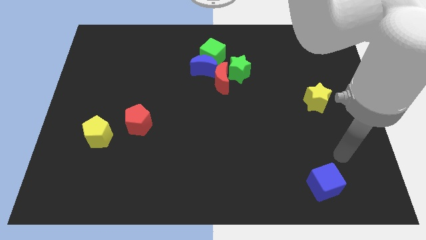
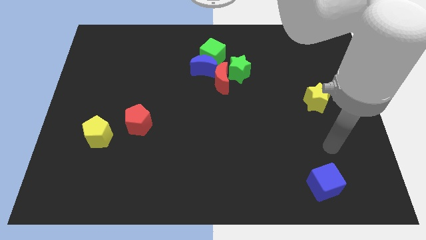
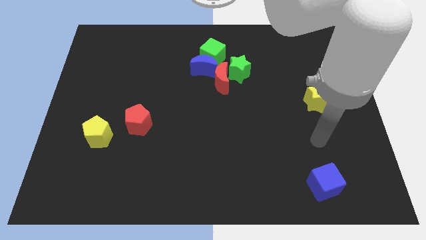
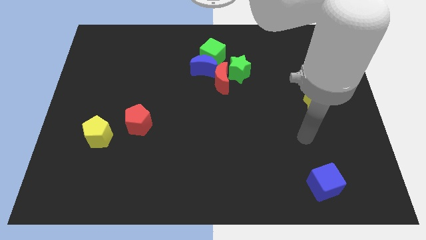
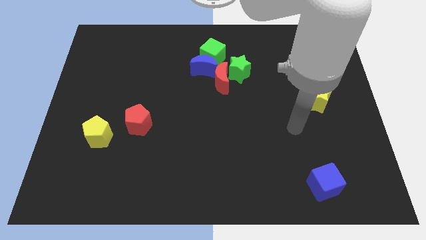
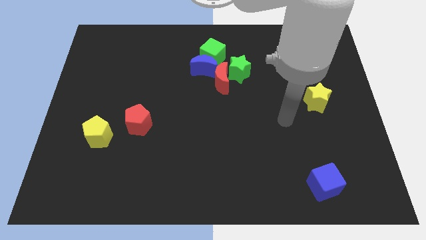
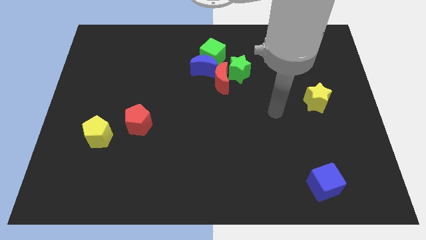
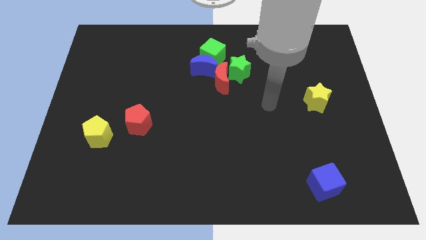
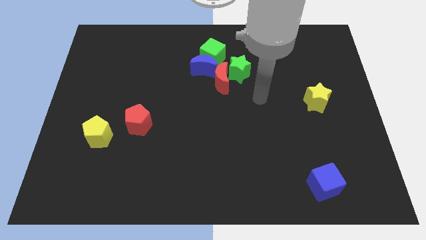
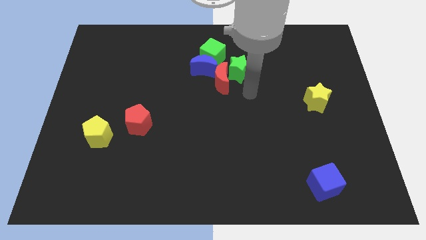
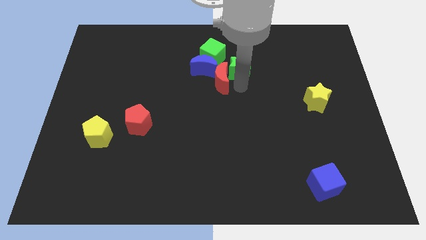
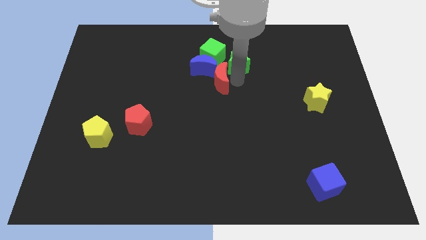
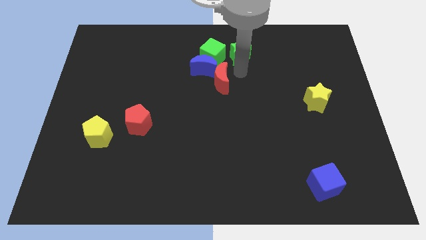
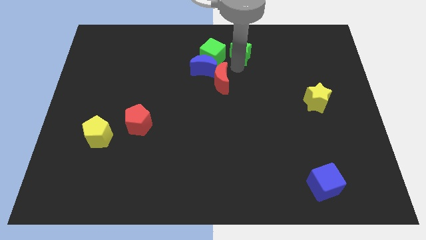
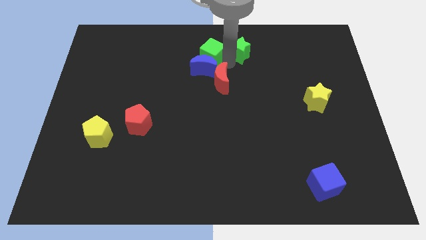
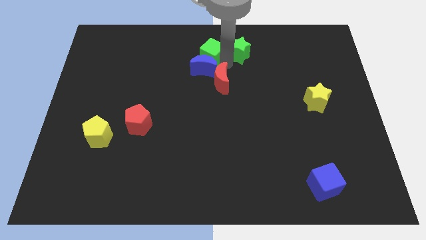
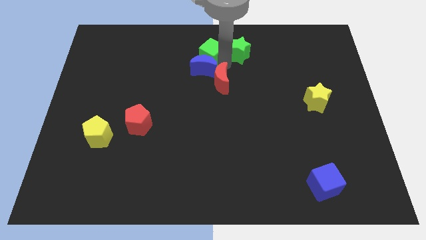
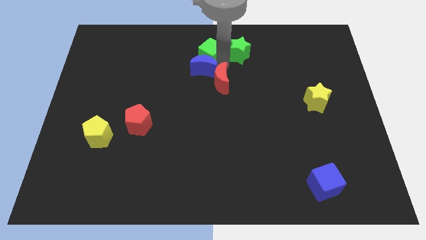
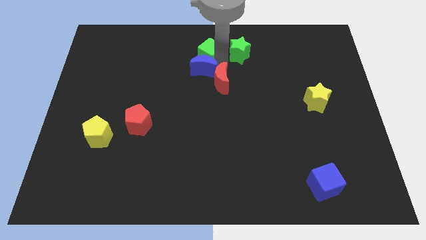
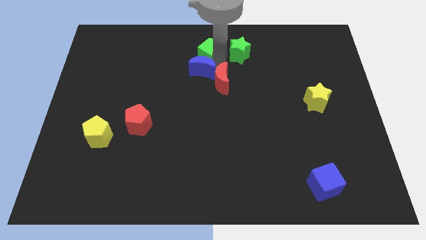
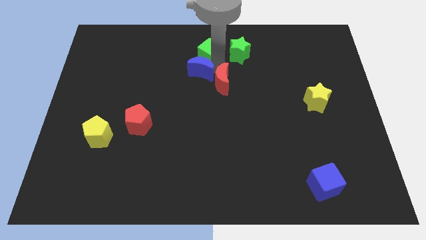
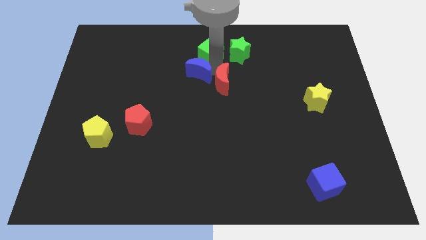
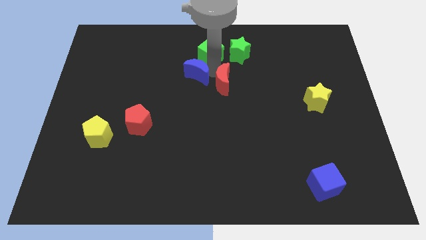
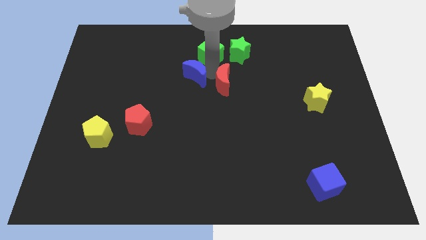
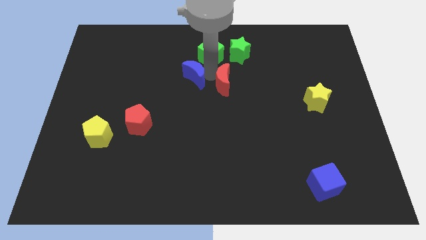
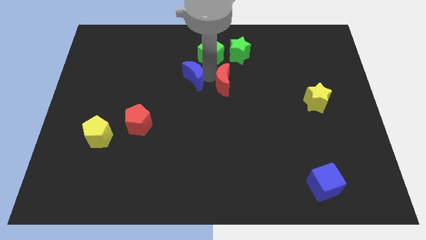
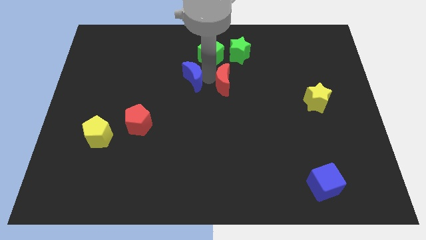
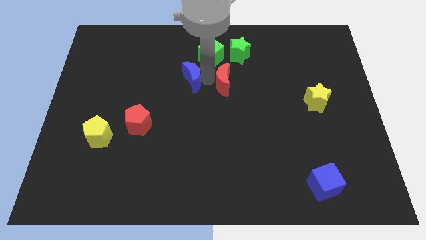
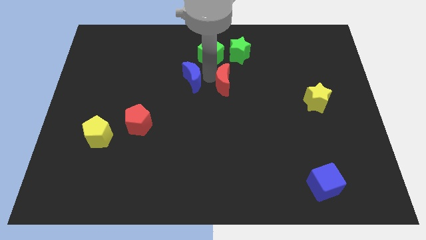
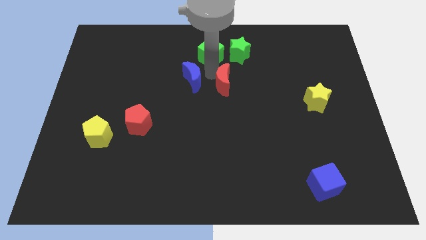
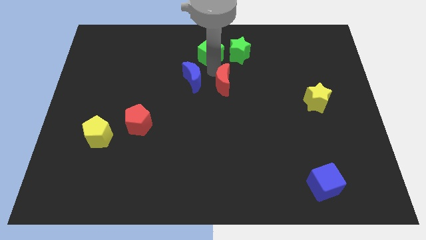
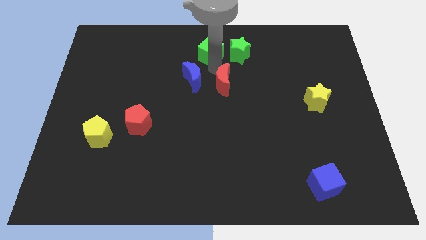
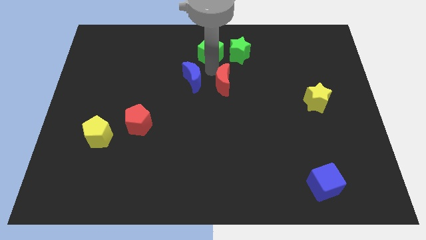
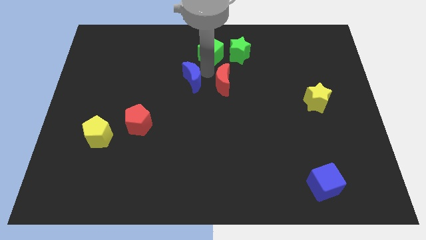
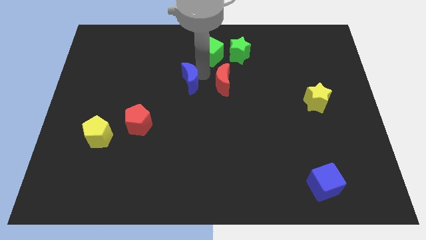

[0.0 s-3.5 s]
pull the blue moon apart from the group

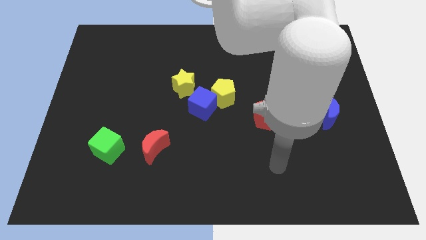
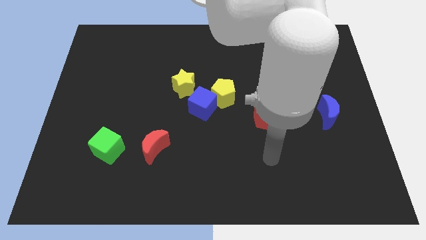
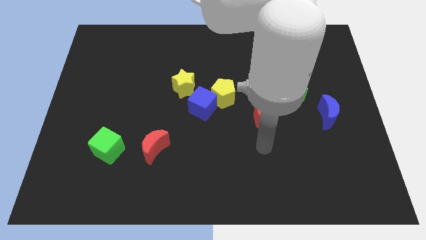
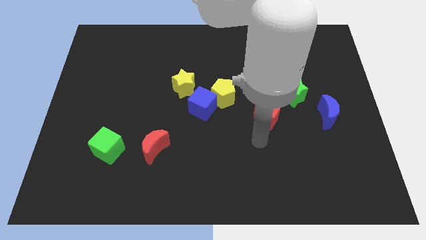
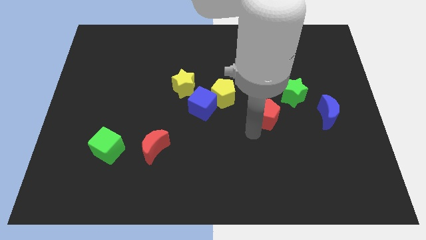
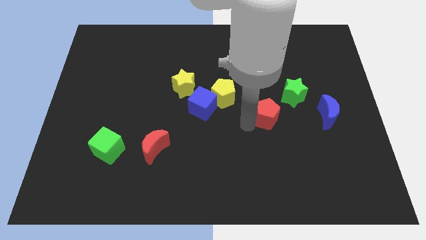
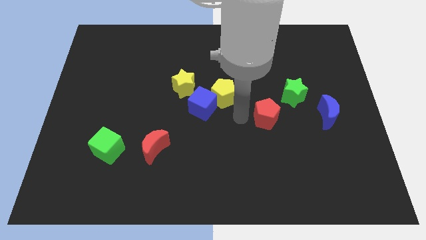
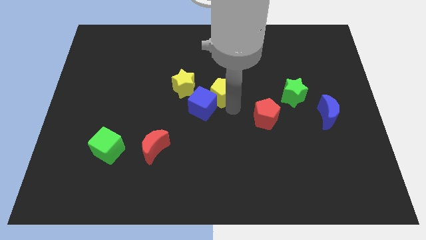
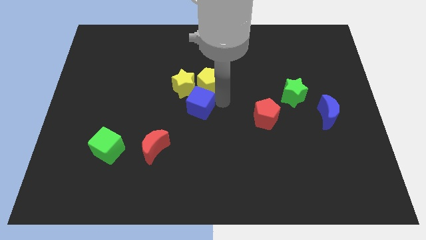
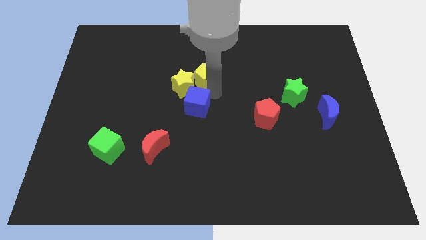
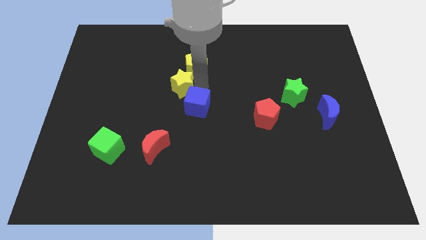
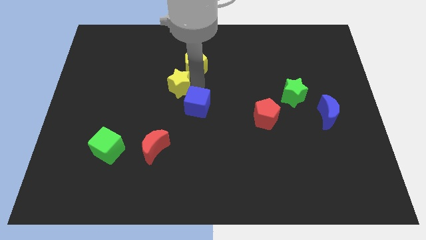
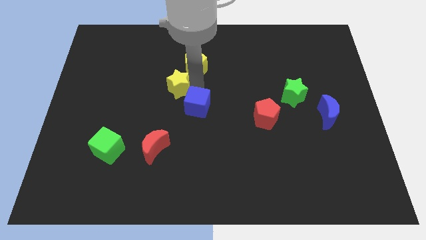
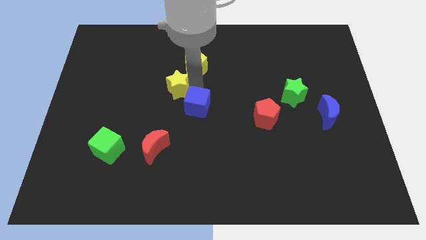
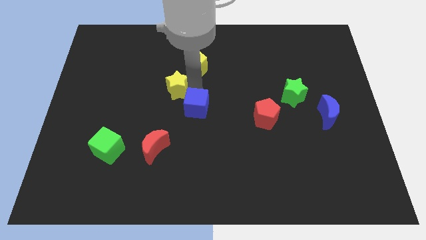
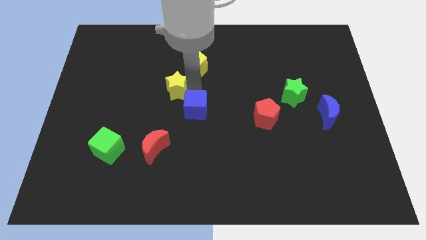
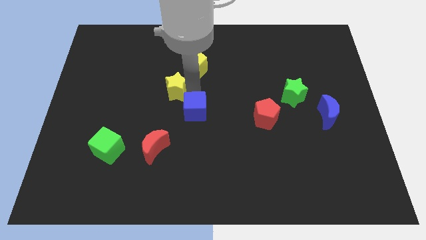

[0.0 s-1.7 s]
move the blue cube away from the yellow pentagon and yellow star

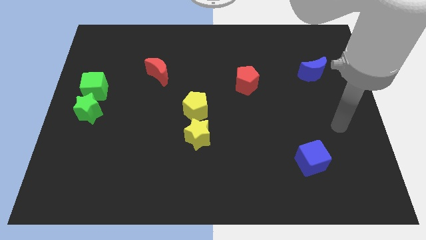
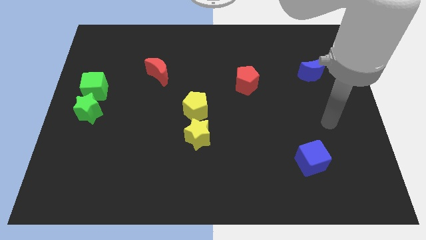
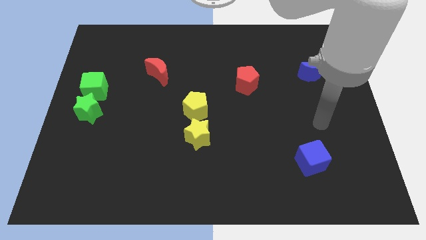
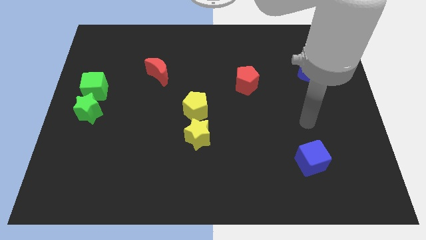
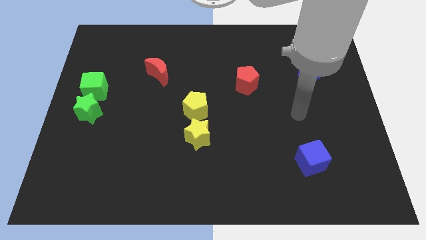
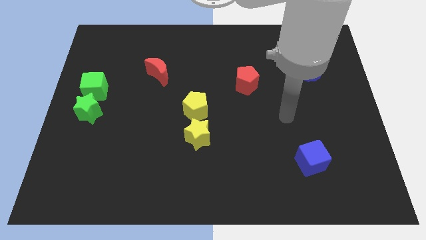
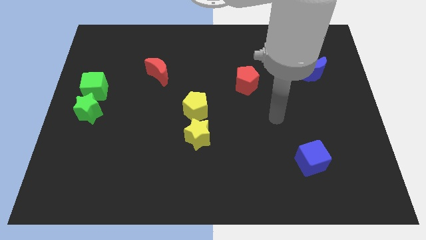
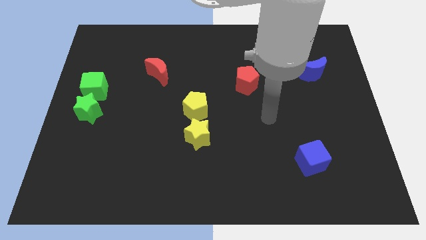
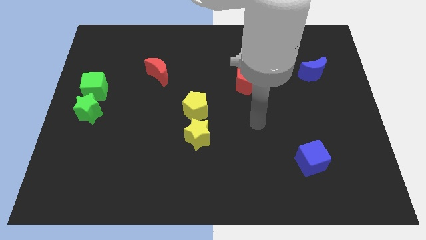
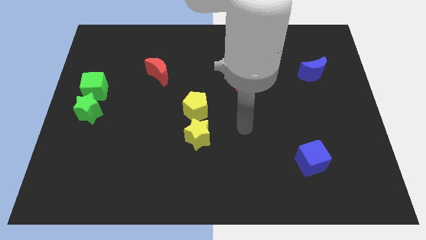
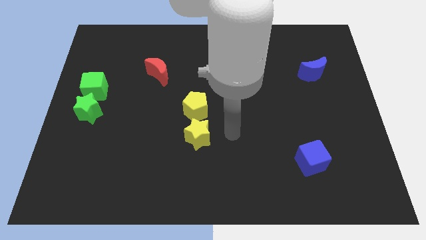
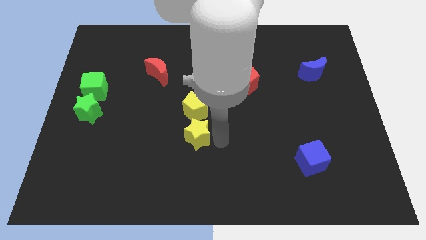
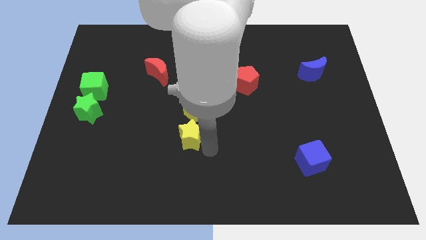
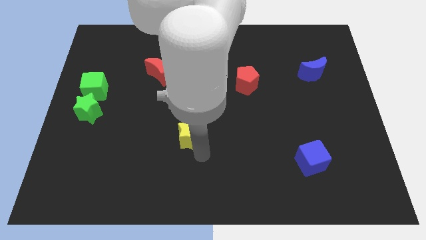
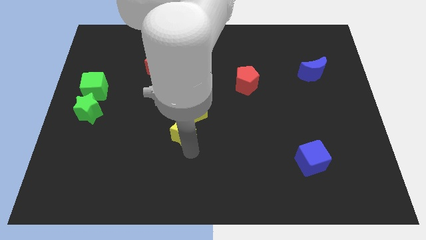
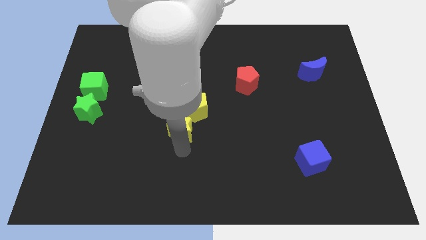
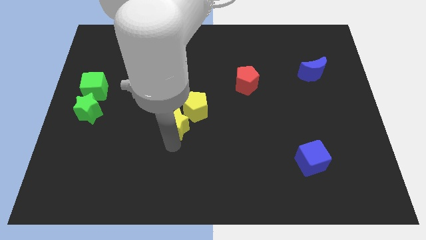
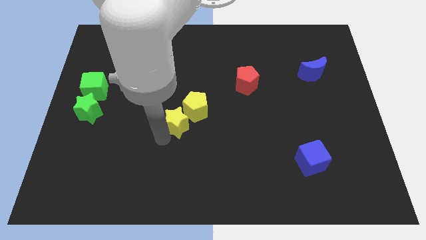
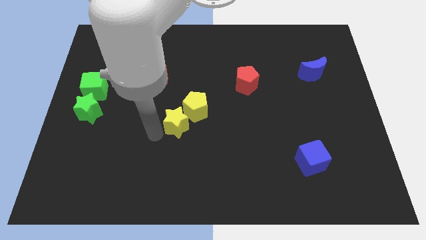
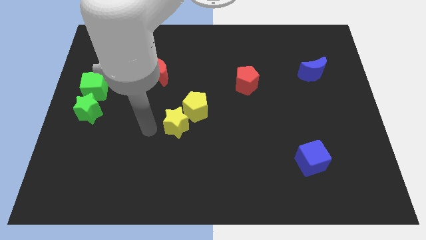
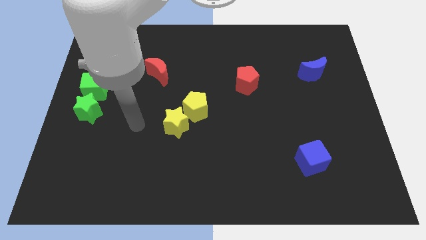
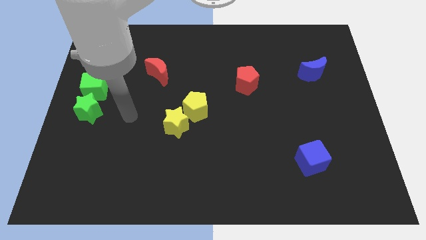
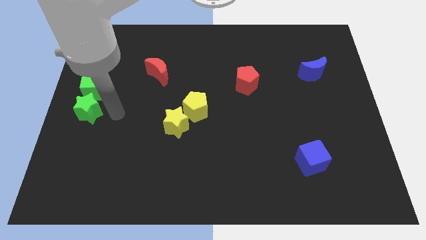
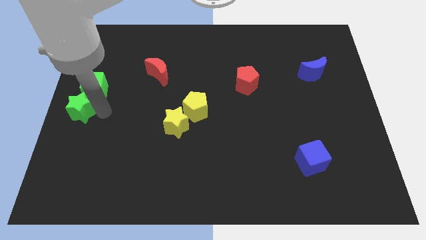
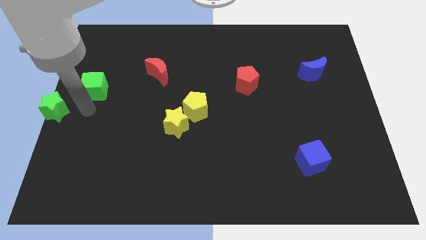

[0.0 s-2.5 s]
separate the green cube from the green star

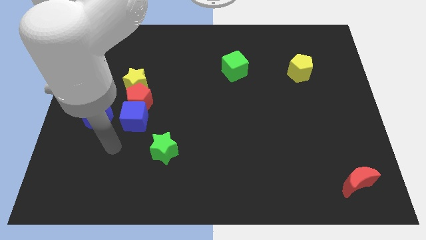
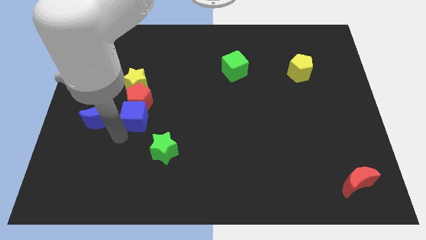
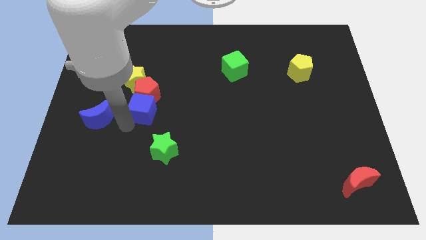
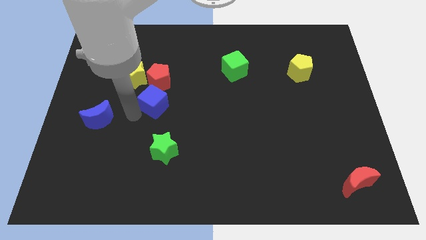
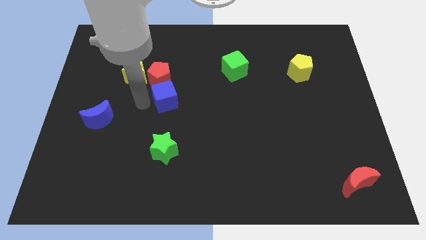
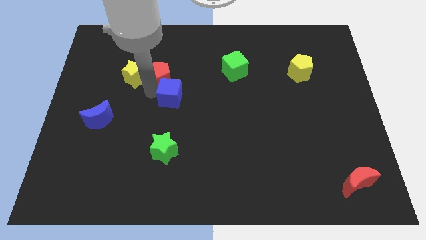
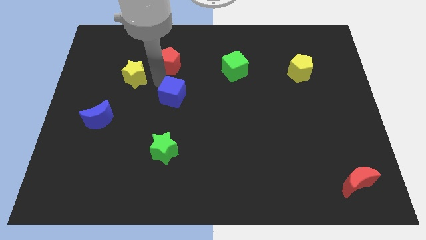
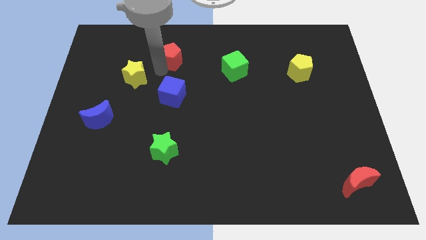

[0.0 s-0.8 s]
move the yellow star away from the red pentagon

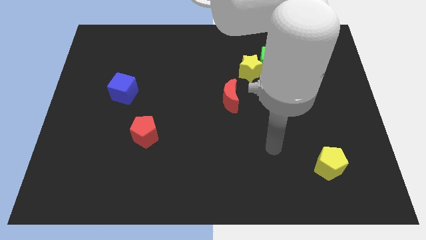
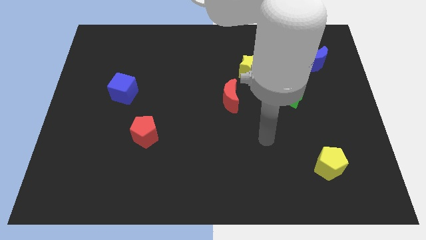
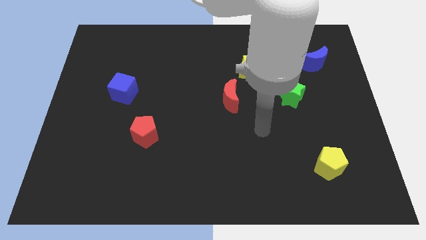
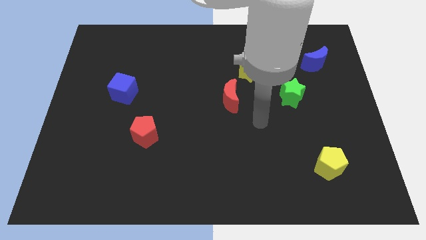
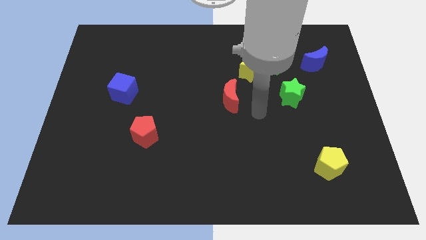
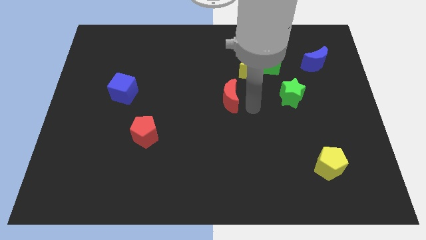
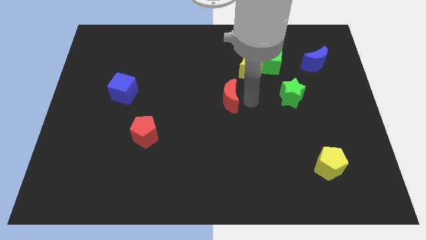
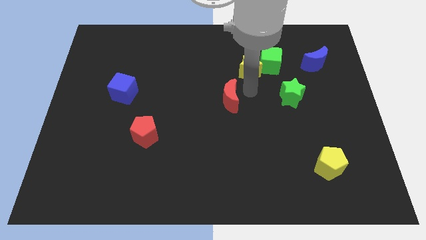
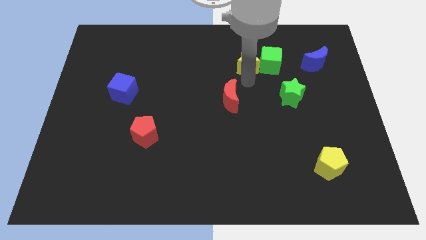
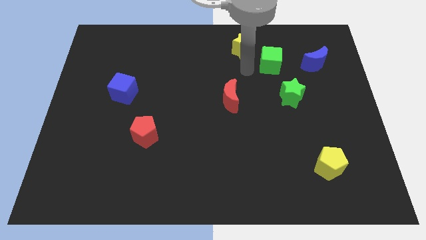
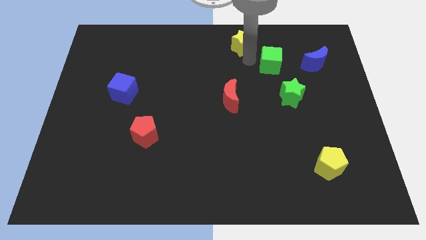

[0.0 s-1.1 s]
separate the green cube from the yellow star
